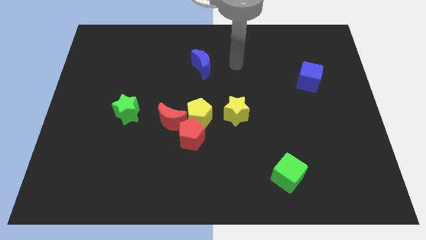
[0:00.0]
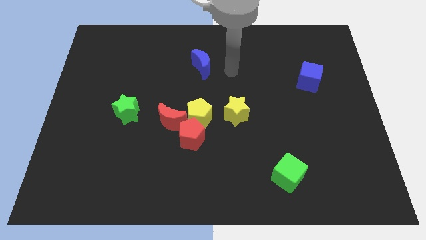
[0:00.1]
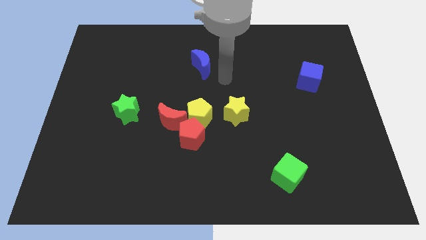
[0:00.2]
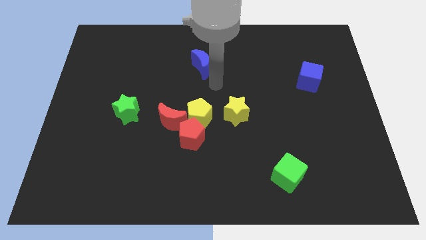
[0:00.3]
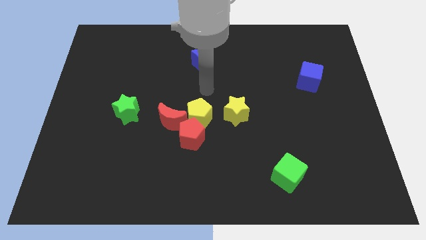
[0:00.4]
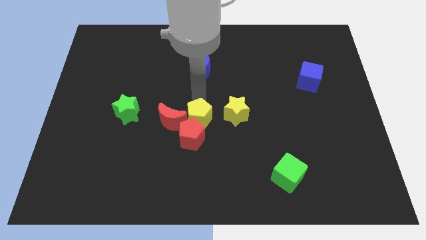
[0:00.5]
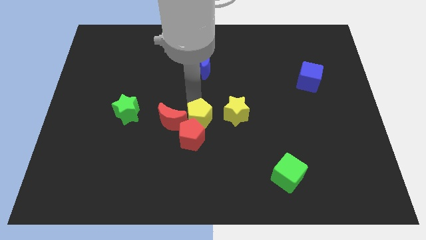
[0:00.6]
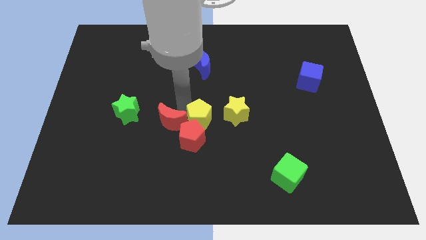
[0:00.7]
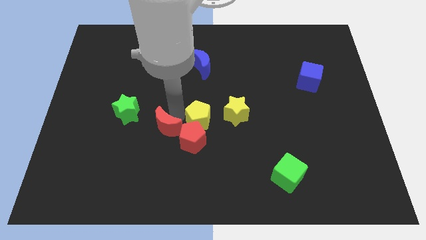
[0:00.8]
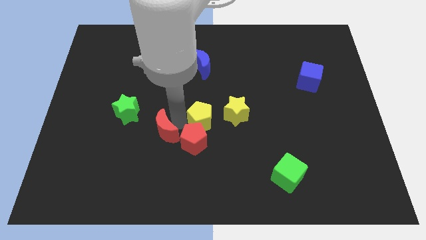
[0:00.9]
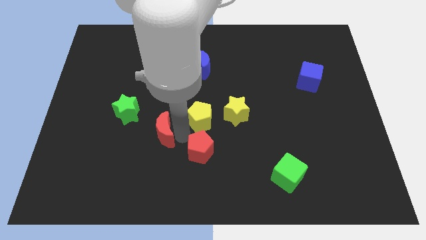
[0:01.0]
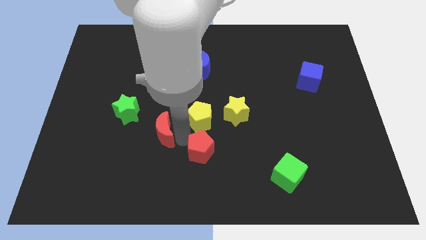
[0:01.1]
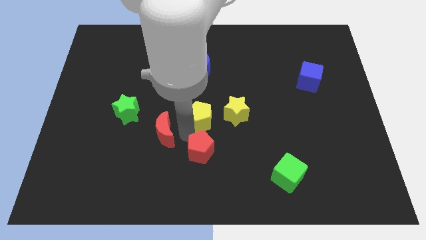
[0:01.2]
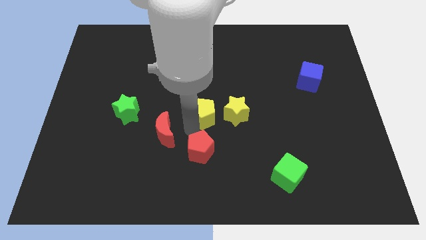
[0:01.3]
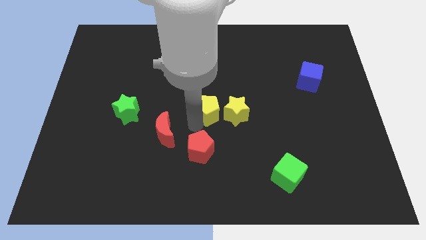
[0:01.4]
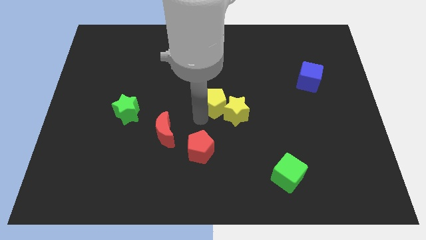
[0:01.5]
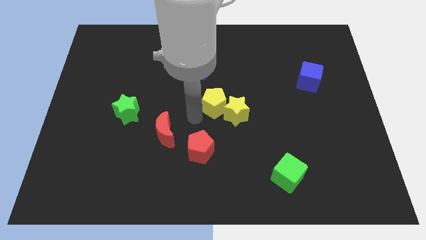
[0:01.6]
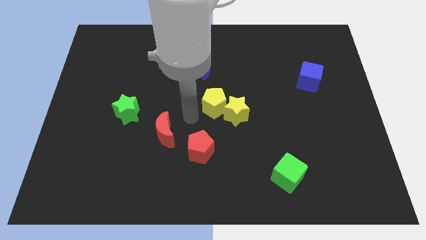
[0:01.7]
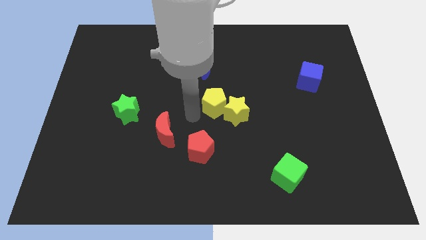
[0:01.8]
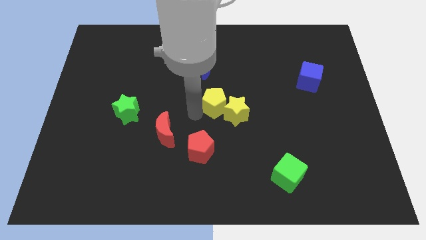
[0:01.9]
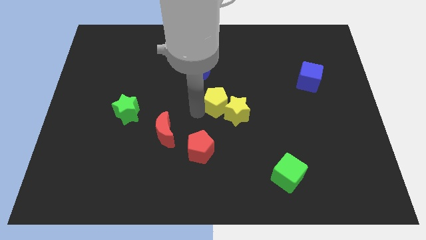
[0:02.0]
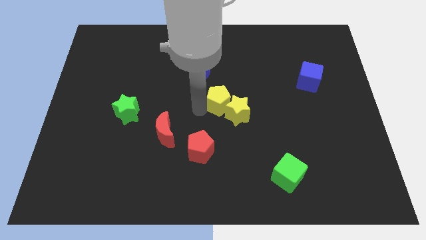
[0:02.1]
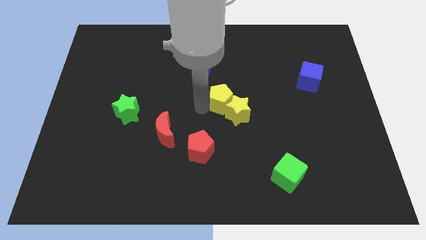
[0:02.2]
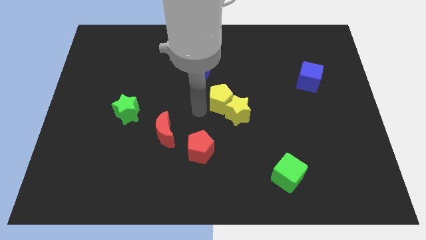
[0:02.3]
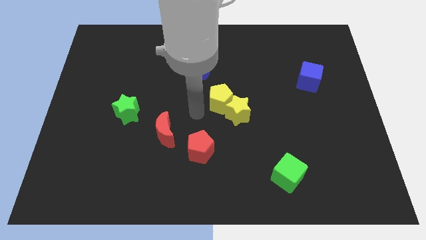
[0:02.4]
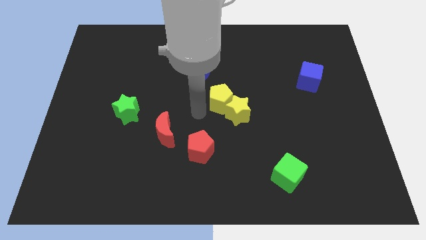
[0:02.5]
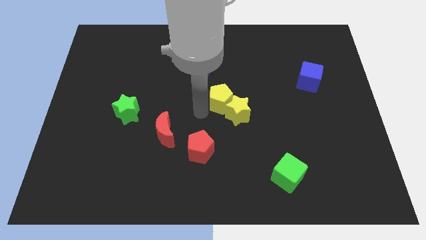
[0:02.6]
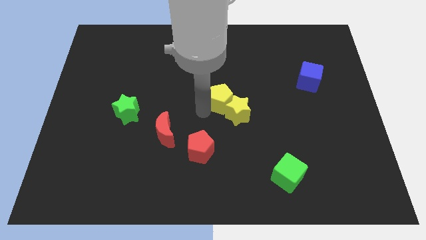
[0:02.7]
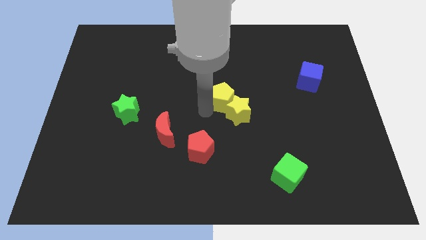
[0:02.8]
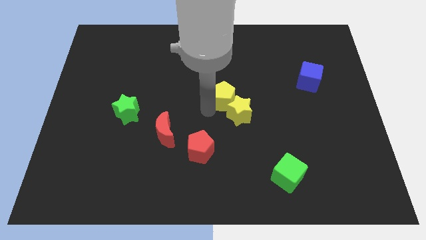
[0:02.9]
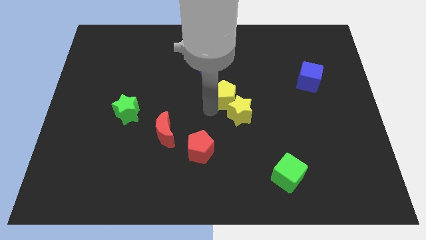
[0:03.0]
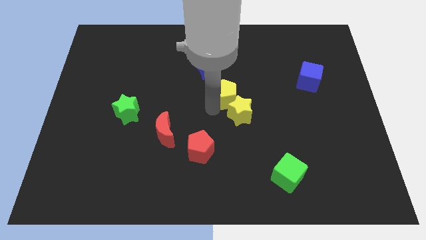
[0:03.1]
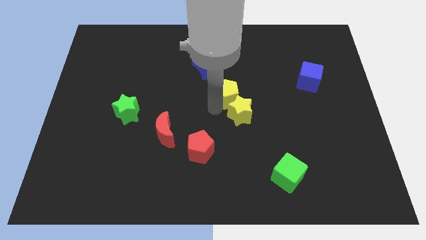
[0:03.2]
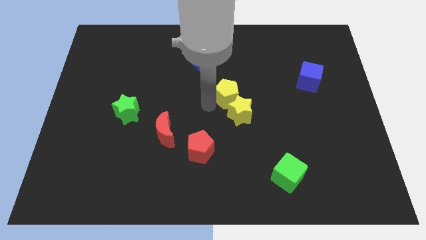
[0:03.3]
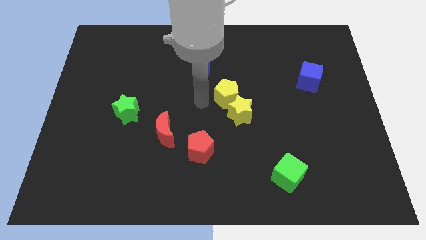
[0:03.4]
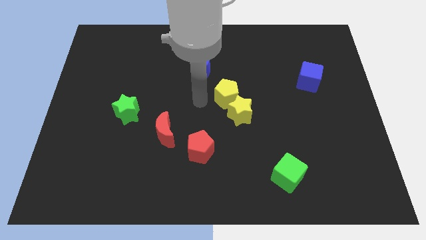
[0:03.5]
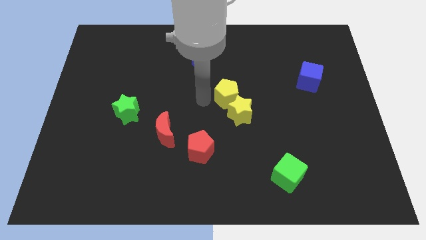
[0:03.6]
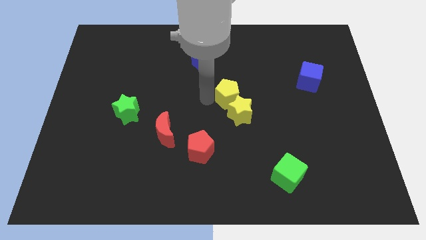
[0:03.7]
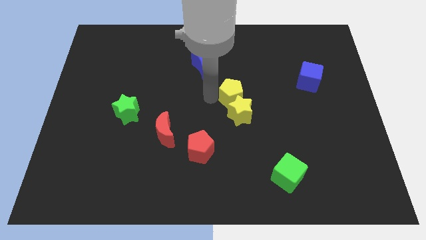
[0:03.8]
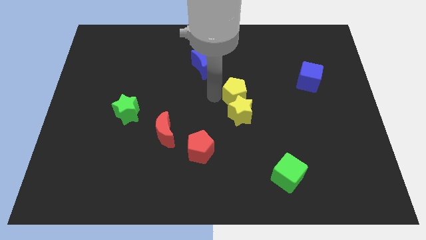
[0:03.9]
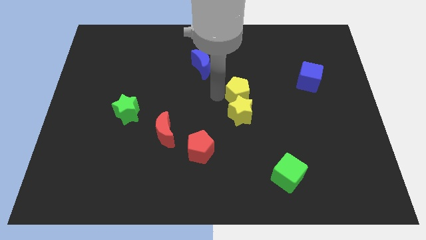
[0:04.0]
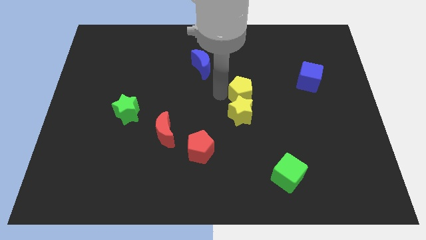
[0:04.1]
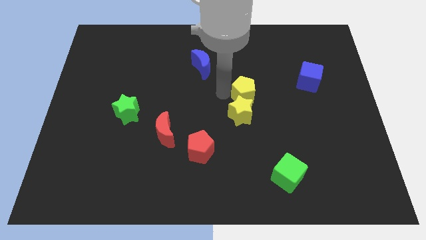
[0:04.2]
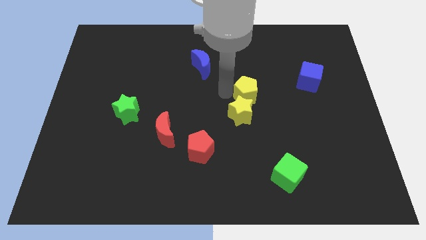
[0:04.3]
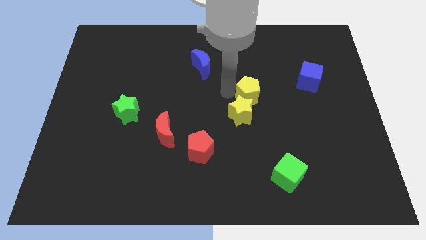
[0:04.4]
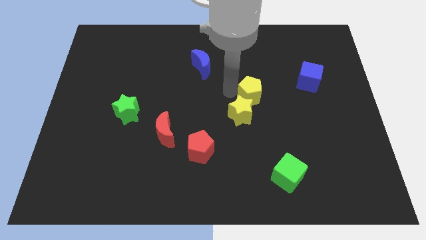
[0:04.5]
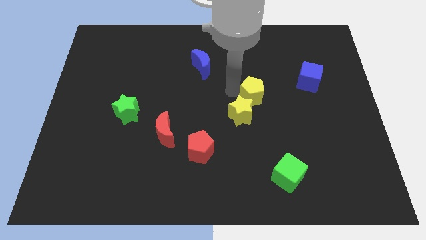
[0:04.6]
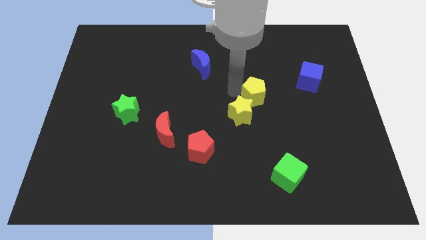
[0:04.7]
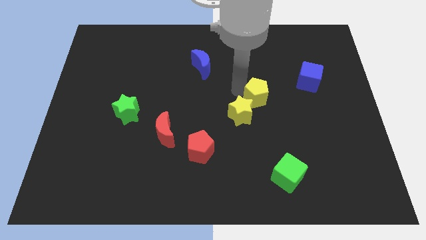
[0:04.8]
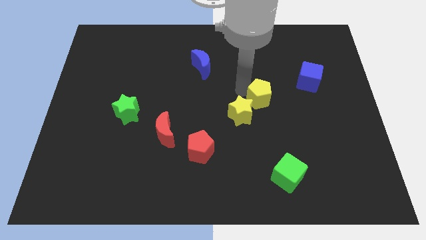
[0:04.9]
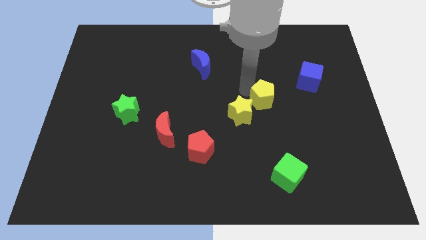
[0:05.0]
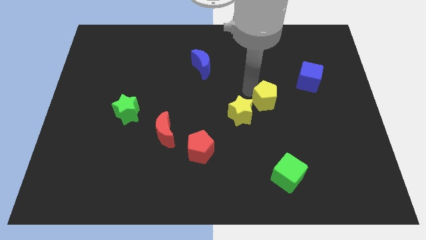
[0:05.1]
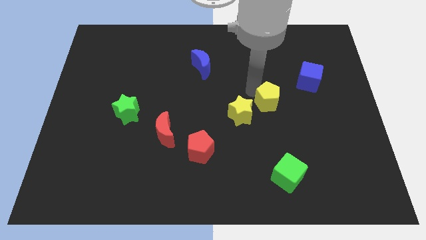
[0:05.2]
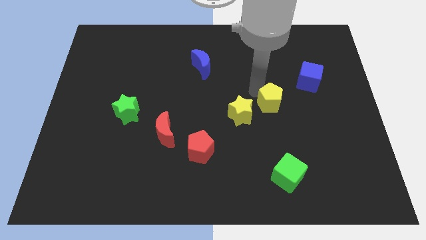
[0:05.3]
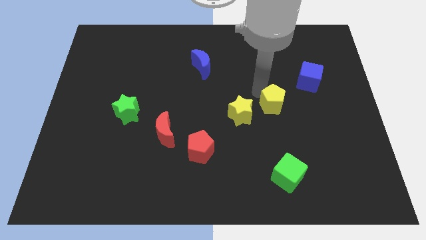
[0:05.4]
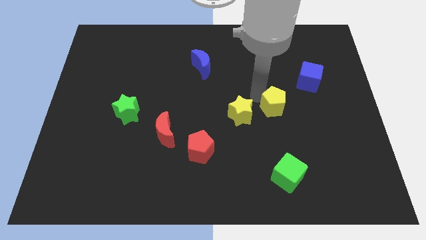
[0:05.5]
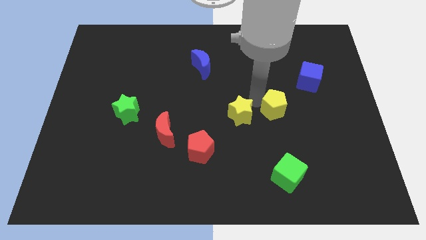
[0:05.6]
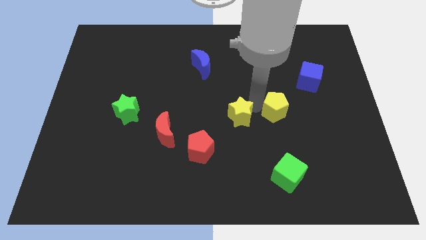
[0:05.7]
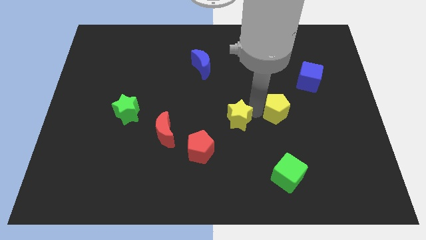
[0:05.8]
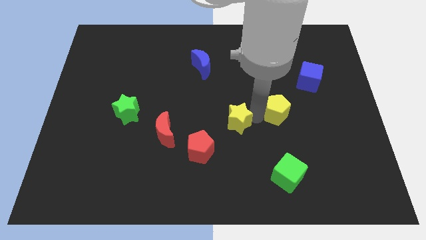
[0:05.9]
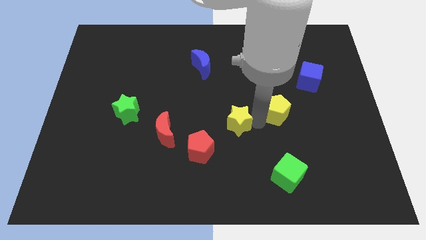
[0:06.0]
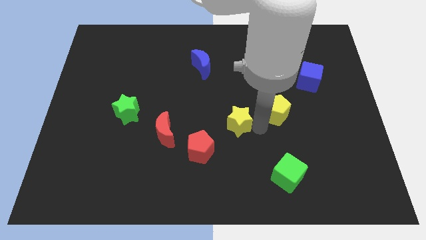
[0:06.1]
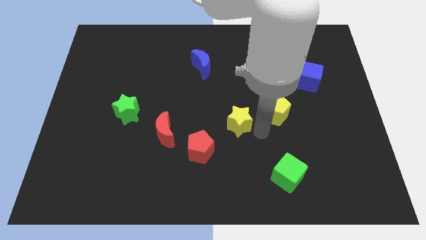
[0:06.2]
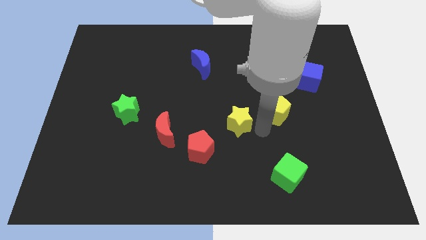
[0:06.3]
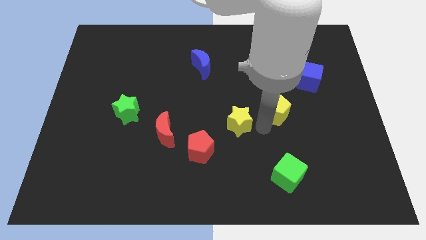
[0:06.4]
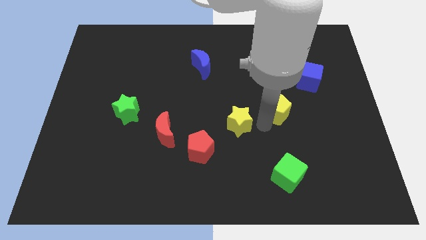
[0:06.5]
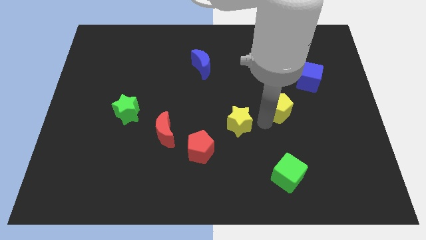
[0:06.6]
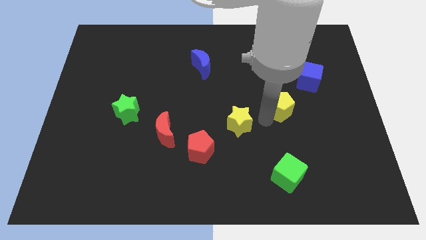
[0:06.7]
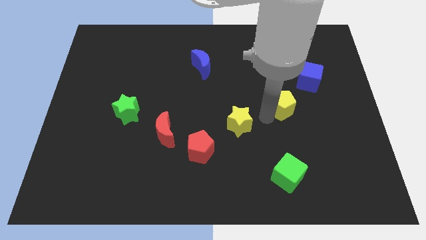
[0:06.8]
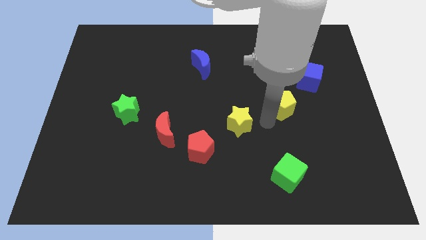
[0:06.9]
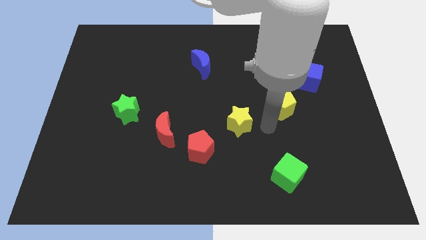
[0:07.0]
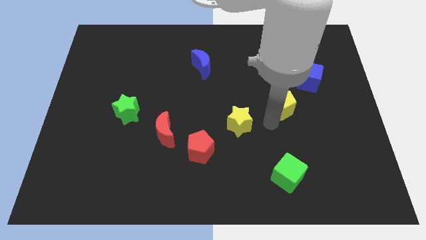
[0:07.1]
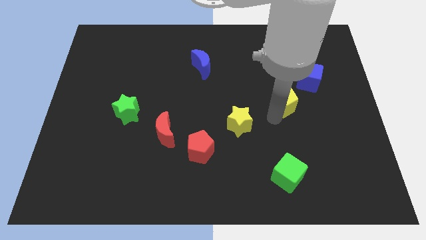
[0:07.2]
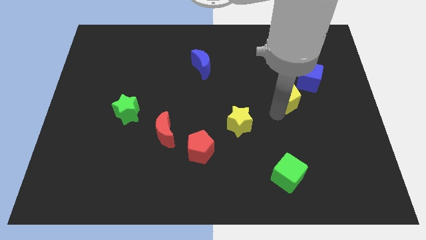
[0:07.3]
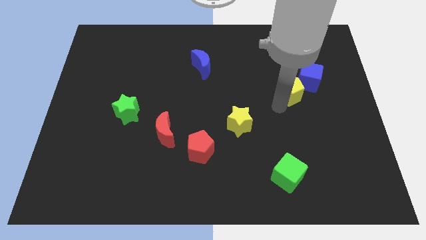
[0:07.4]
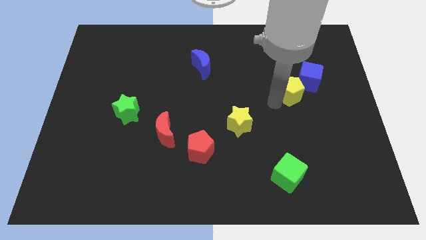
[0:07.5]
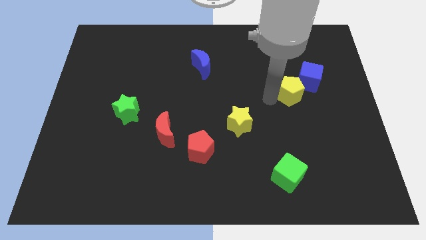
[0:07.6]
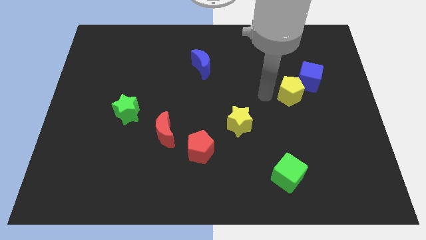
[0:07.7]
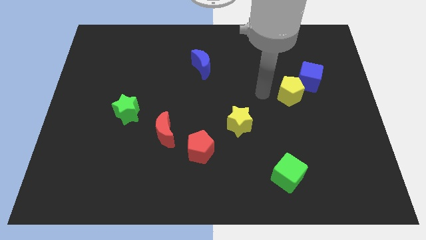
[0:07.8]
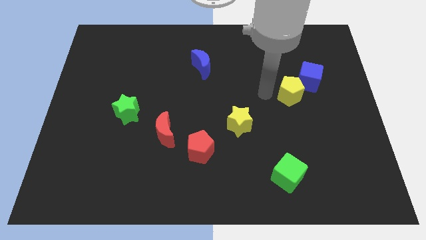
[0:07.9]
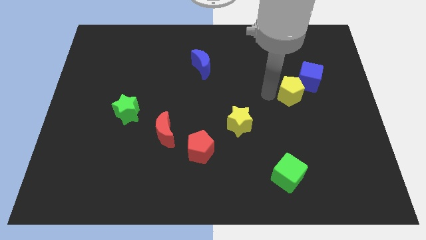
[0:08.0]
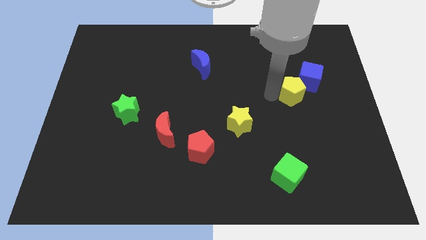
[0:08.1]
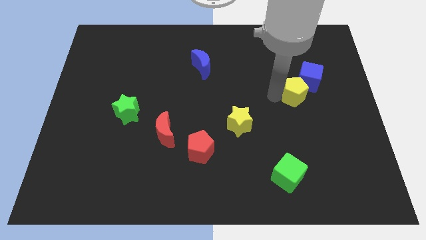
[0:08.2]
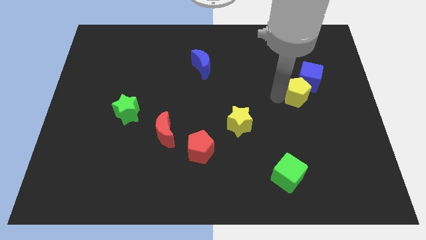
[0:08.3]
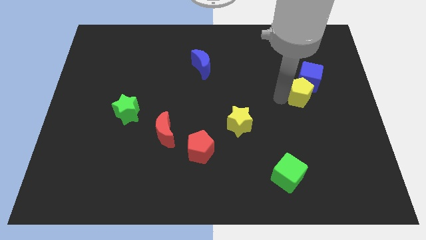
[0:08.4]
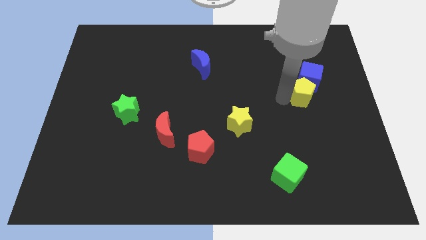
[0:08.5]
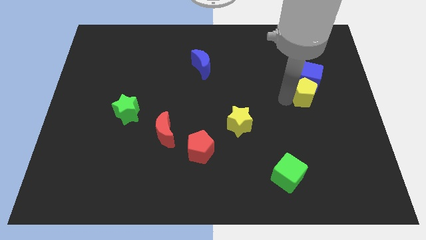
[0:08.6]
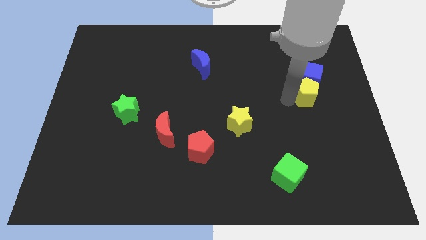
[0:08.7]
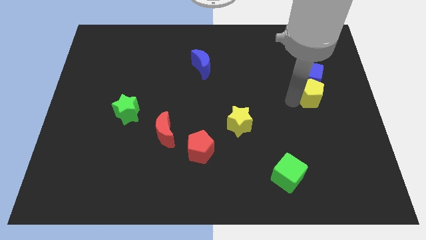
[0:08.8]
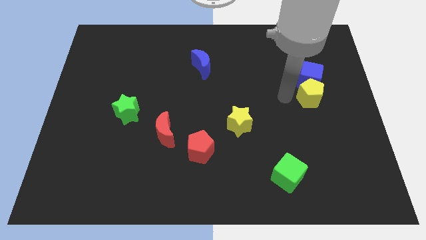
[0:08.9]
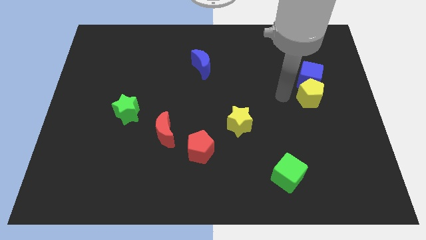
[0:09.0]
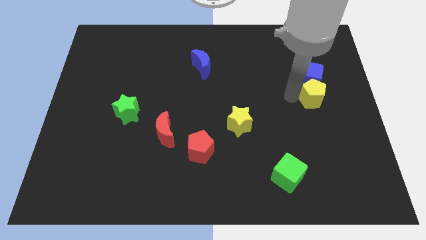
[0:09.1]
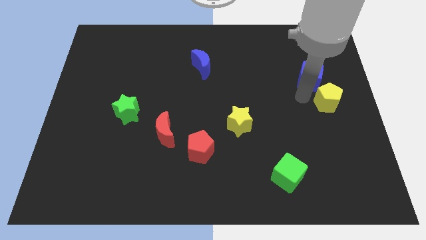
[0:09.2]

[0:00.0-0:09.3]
push the yellow pentagon to the center right
